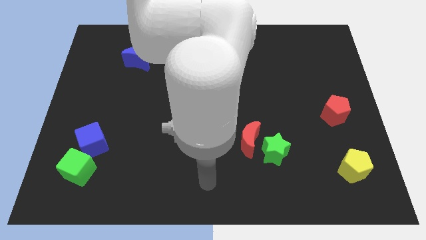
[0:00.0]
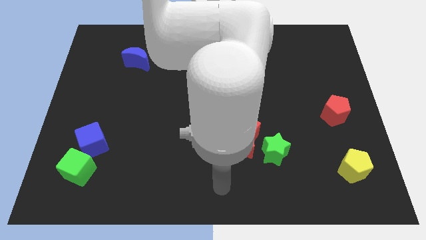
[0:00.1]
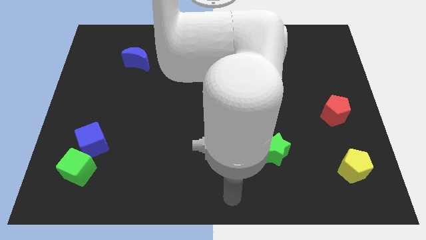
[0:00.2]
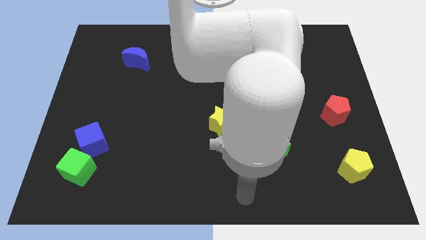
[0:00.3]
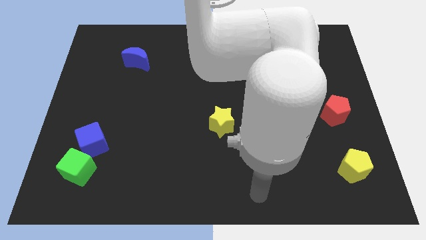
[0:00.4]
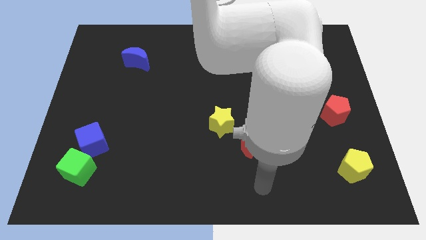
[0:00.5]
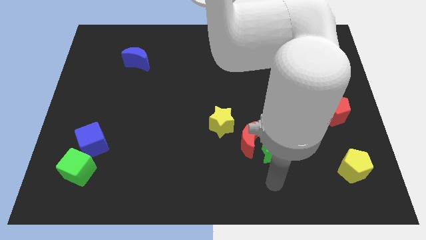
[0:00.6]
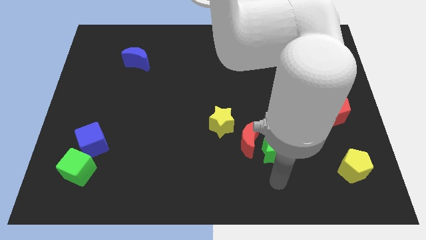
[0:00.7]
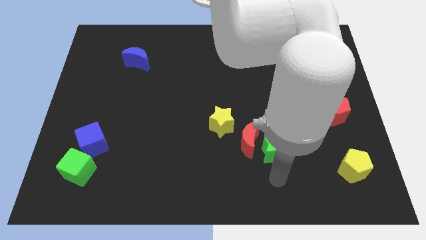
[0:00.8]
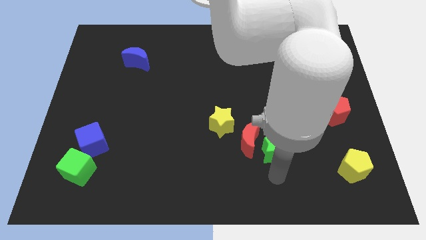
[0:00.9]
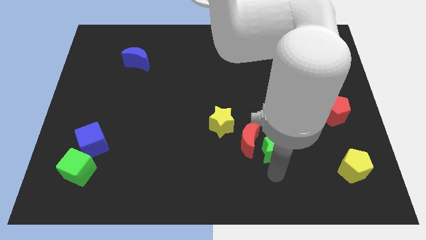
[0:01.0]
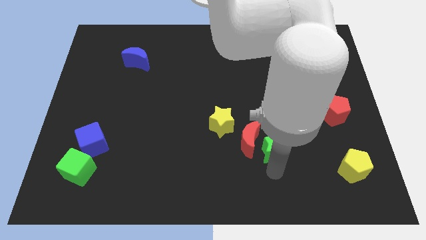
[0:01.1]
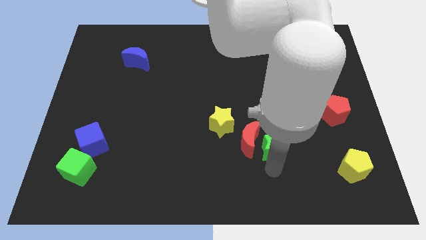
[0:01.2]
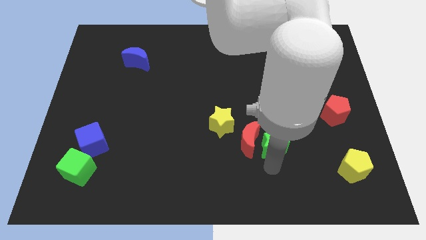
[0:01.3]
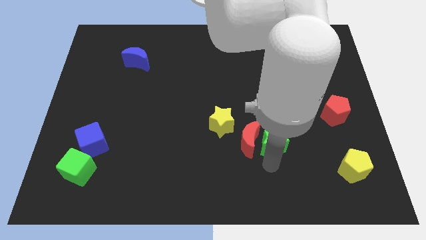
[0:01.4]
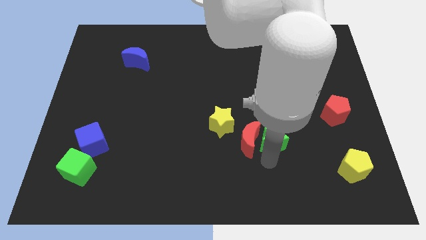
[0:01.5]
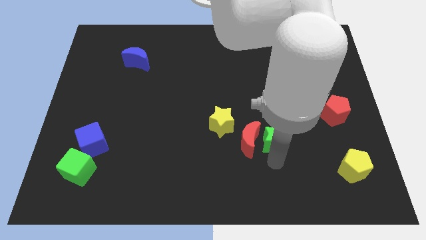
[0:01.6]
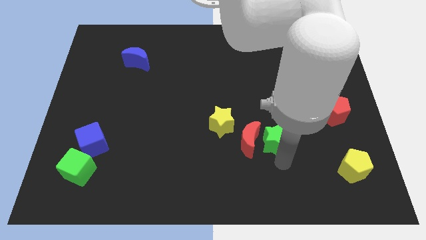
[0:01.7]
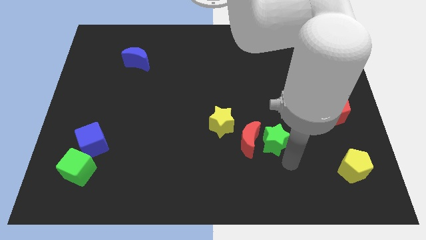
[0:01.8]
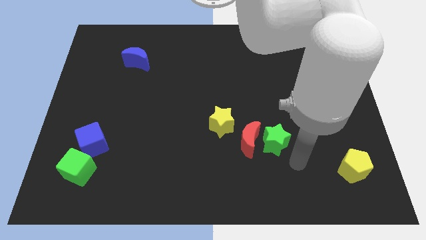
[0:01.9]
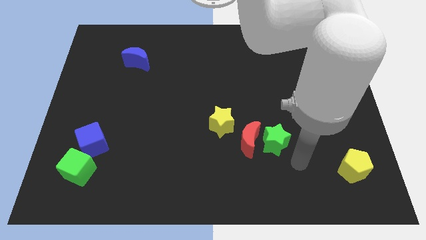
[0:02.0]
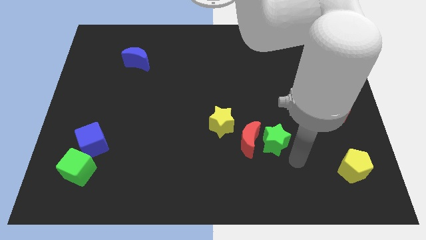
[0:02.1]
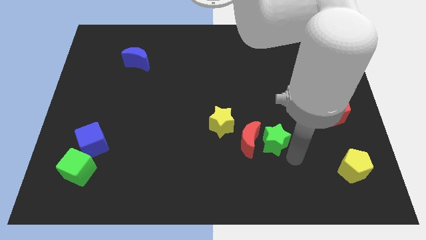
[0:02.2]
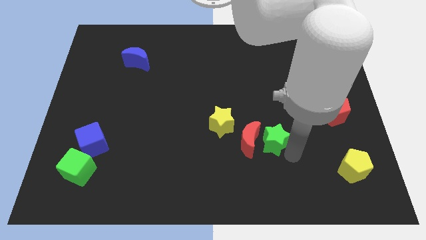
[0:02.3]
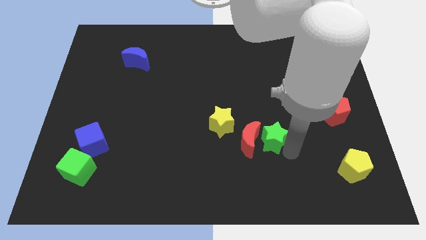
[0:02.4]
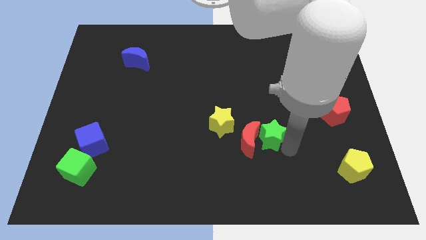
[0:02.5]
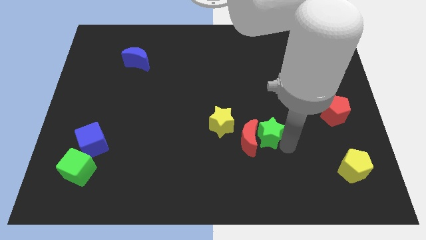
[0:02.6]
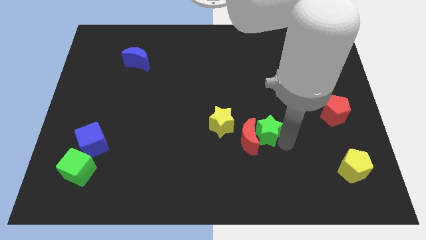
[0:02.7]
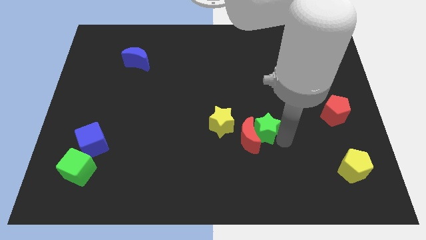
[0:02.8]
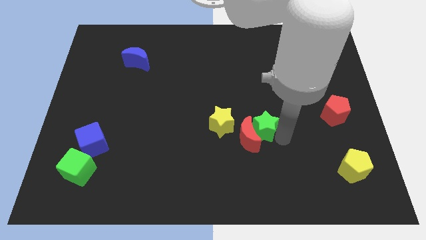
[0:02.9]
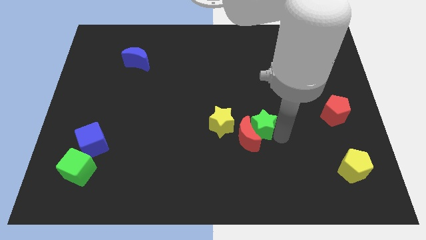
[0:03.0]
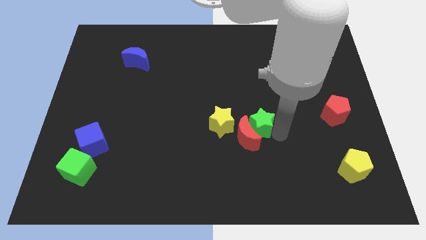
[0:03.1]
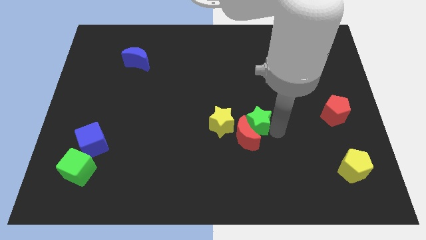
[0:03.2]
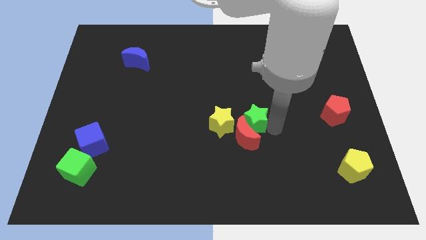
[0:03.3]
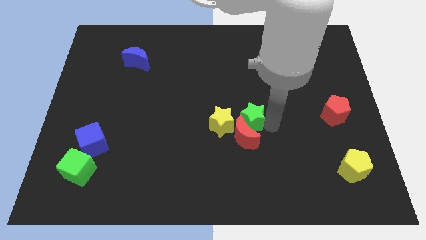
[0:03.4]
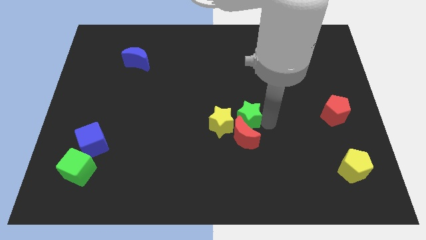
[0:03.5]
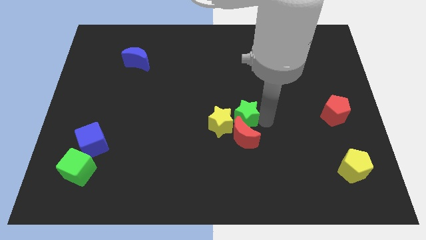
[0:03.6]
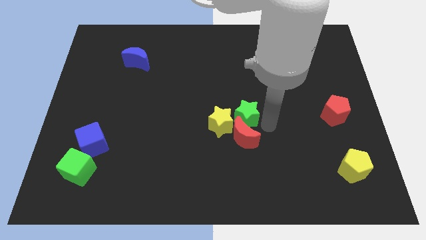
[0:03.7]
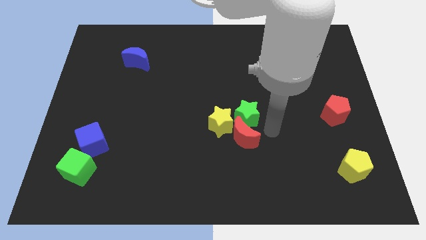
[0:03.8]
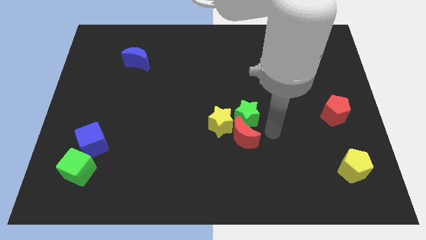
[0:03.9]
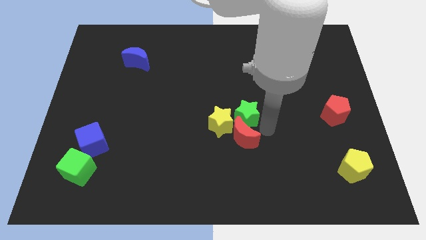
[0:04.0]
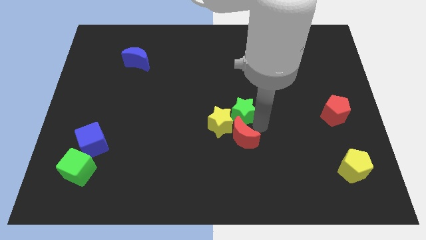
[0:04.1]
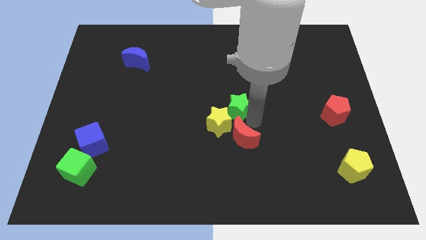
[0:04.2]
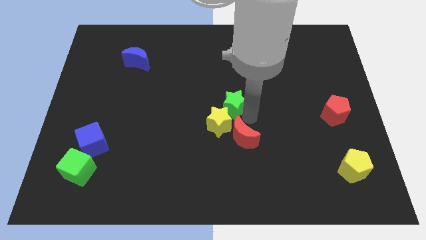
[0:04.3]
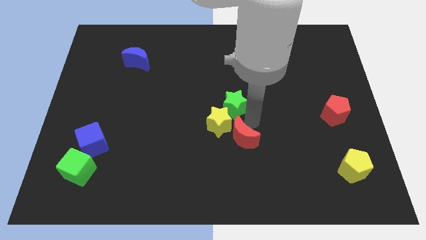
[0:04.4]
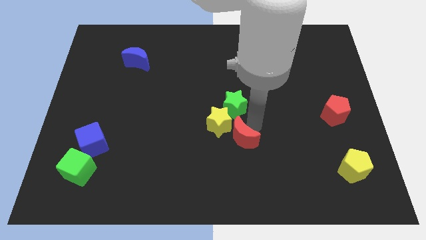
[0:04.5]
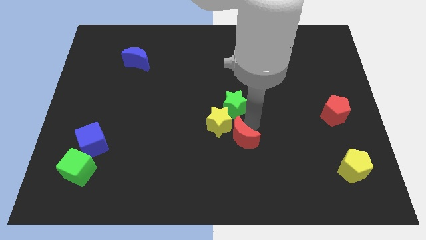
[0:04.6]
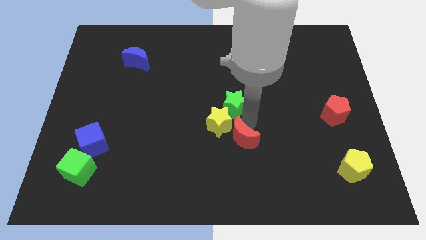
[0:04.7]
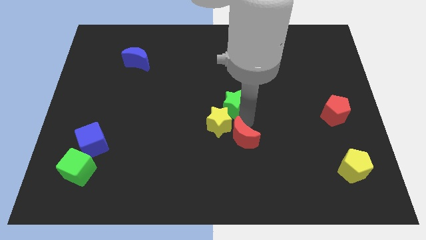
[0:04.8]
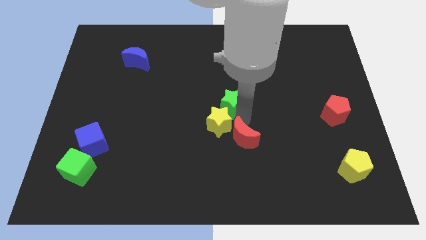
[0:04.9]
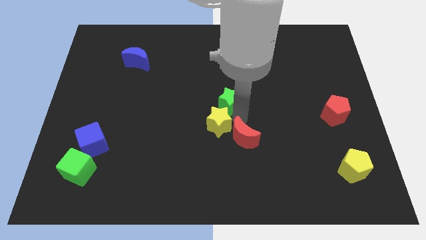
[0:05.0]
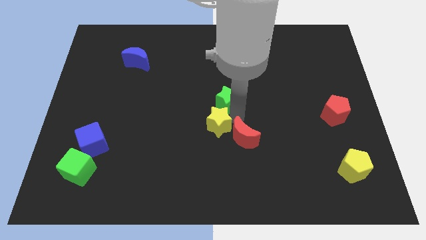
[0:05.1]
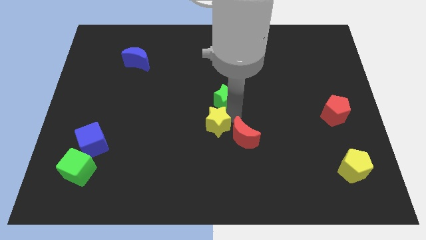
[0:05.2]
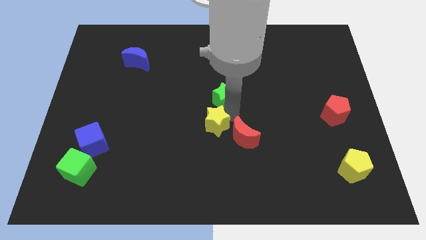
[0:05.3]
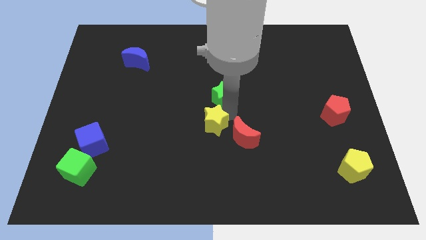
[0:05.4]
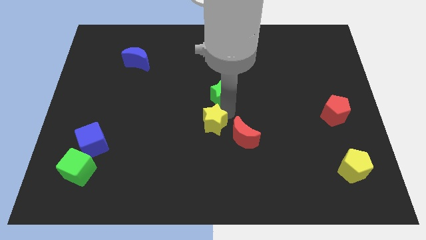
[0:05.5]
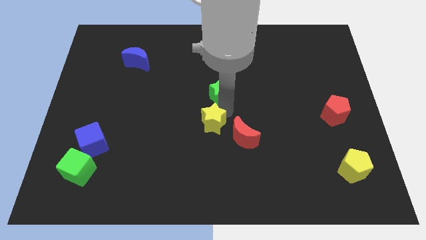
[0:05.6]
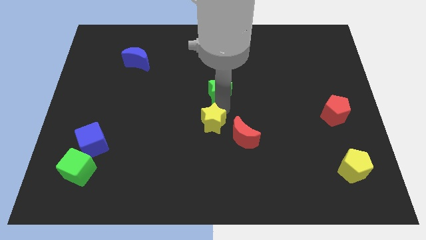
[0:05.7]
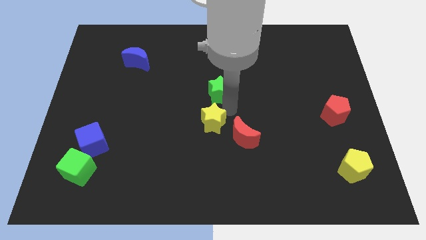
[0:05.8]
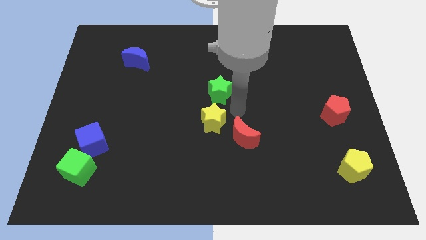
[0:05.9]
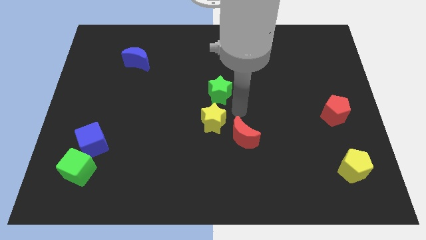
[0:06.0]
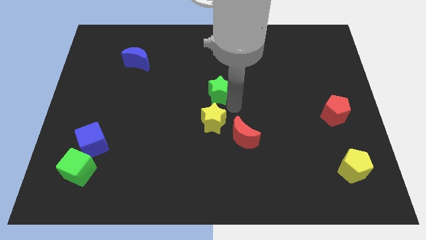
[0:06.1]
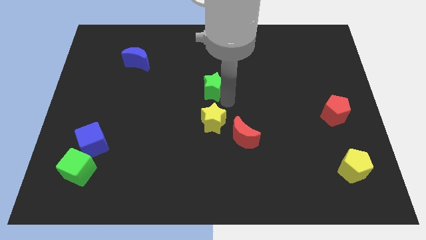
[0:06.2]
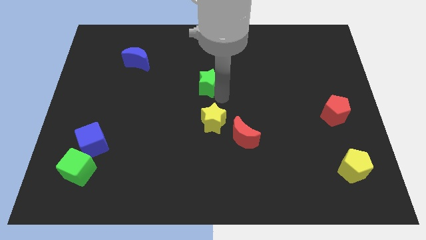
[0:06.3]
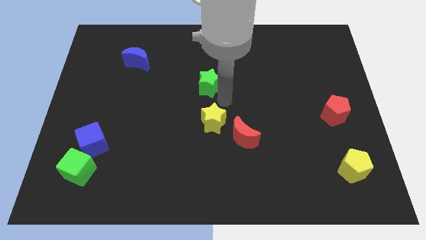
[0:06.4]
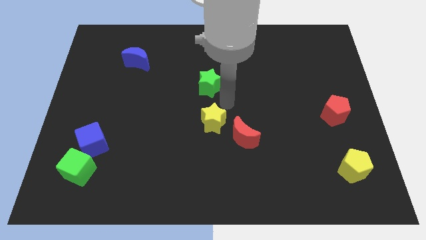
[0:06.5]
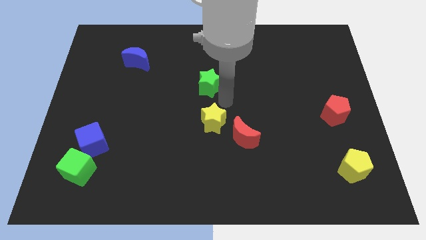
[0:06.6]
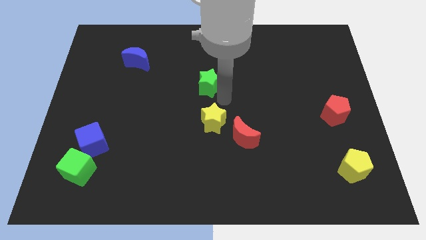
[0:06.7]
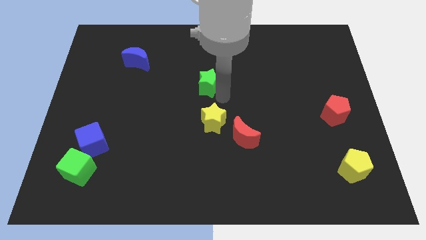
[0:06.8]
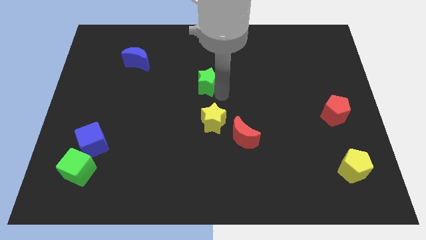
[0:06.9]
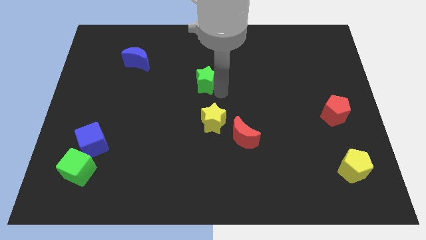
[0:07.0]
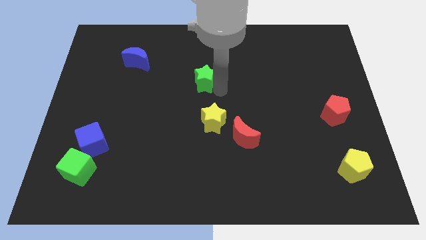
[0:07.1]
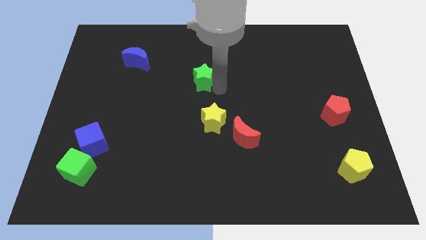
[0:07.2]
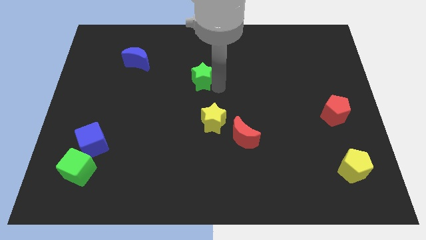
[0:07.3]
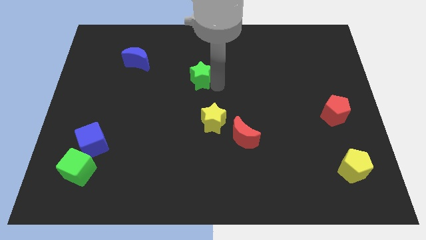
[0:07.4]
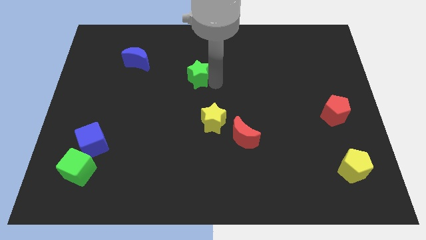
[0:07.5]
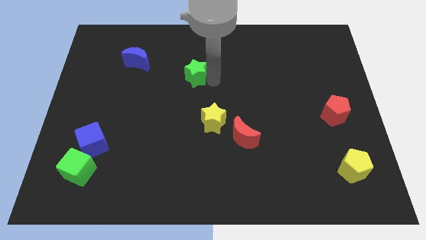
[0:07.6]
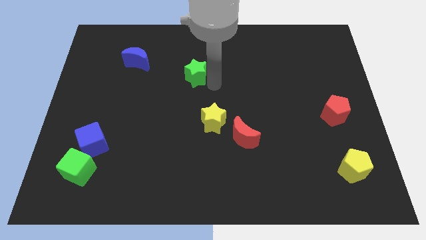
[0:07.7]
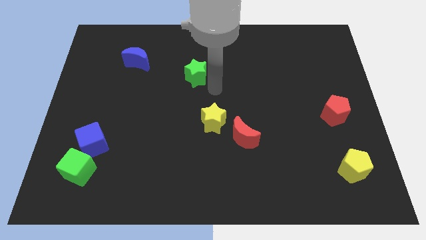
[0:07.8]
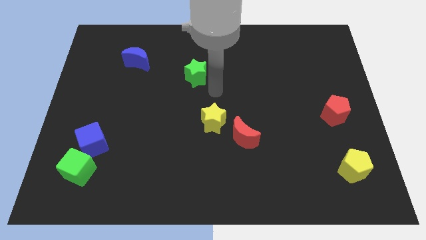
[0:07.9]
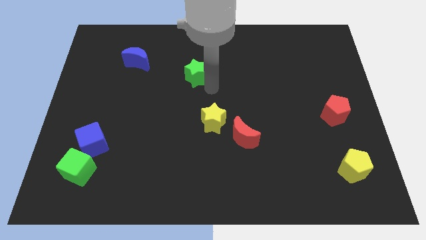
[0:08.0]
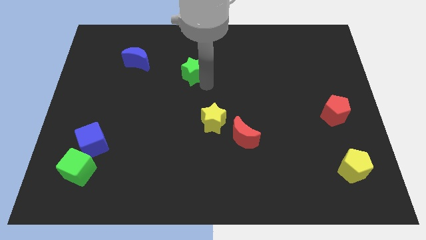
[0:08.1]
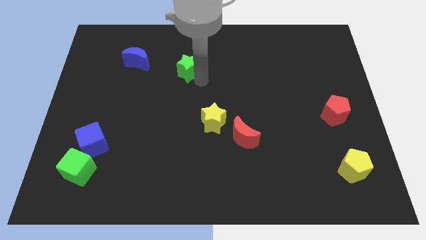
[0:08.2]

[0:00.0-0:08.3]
put the green star to the right side of the blue moon
